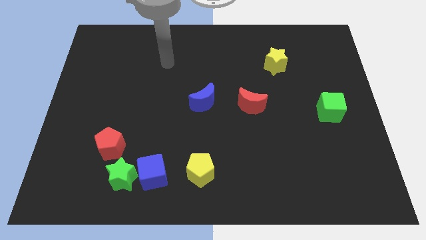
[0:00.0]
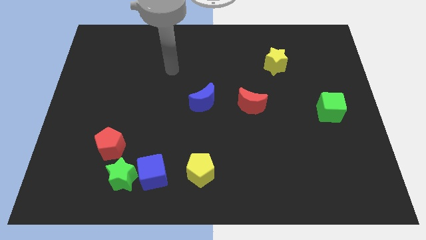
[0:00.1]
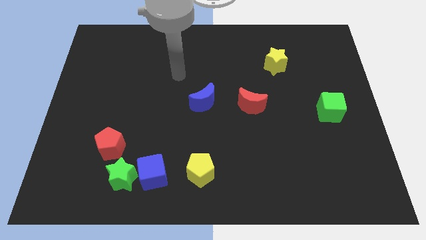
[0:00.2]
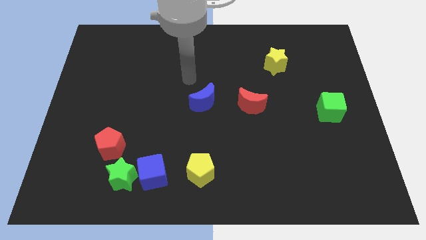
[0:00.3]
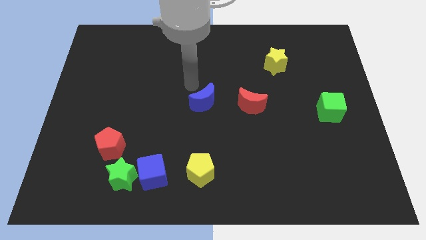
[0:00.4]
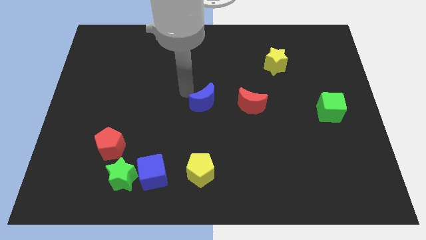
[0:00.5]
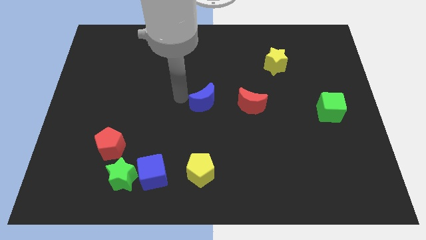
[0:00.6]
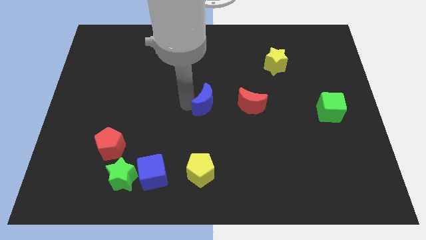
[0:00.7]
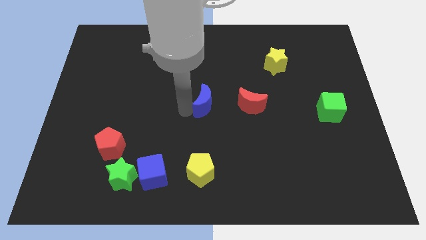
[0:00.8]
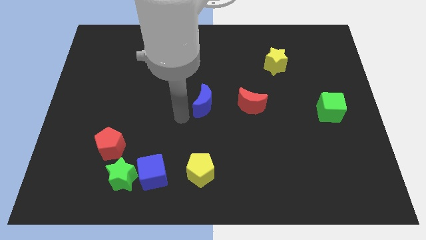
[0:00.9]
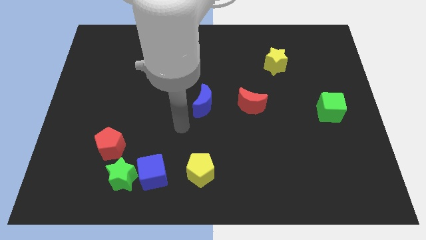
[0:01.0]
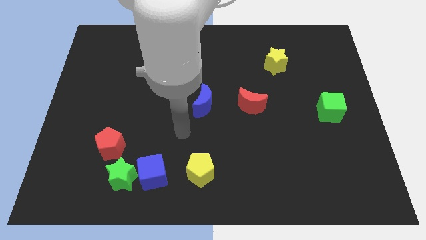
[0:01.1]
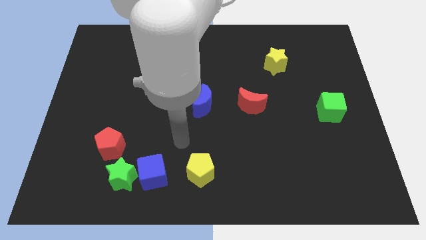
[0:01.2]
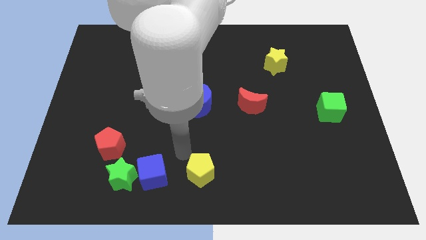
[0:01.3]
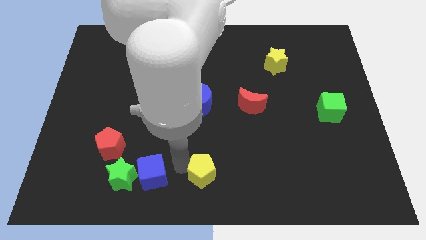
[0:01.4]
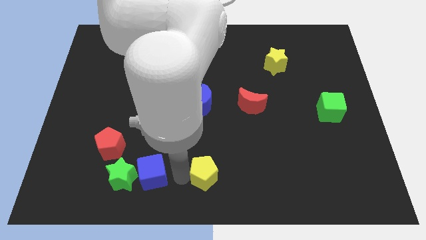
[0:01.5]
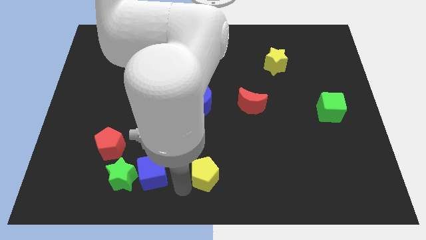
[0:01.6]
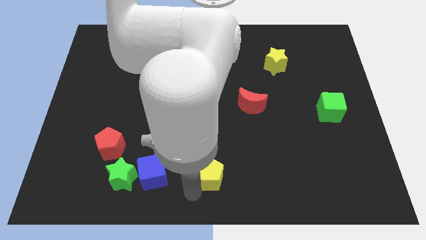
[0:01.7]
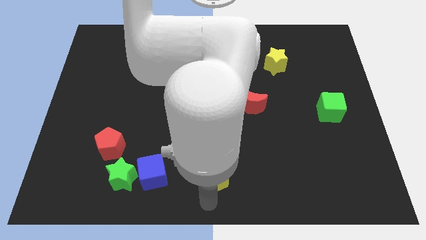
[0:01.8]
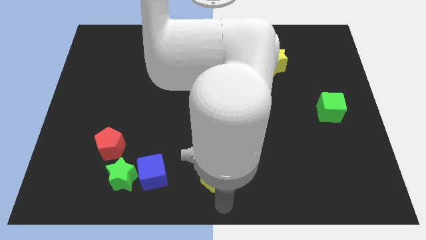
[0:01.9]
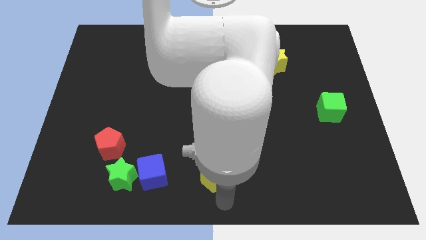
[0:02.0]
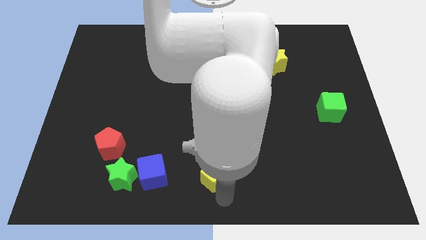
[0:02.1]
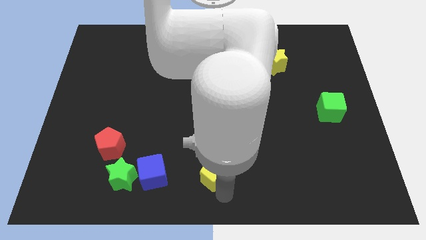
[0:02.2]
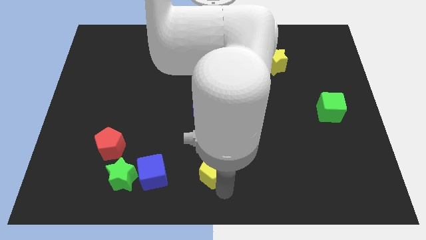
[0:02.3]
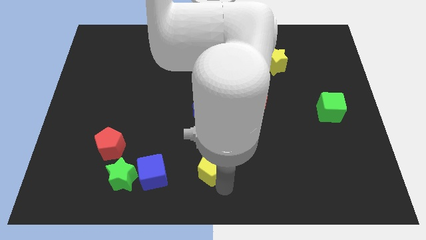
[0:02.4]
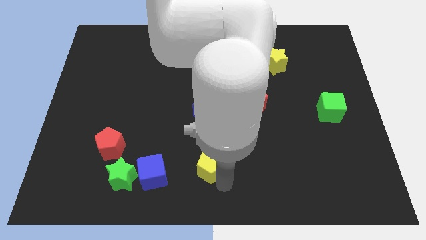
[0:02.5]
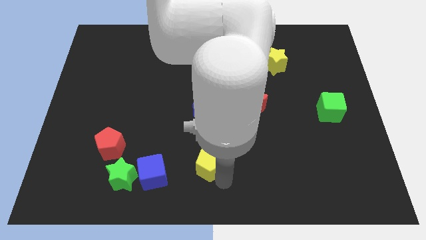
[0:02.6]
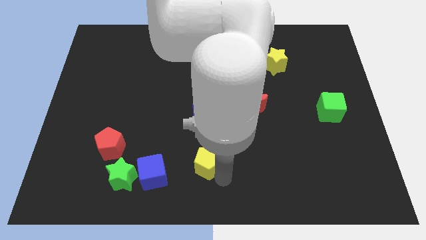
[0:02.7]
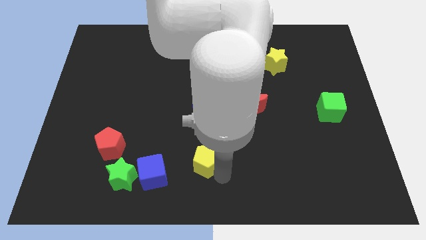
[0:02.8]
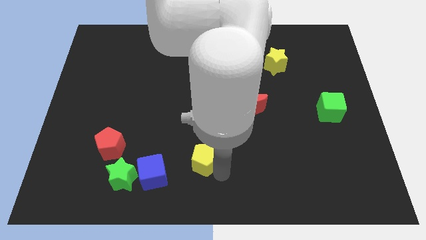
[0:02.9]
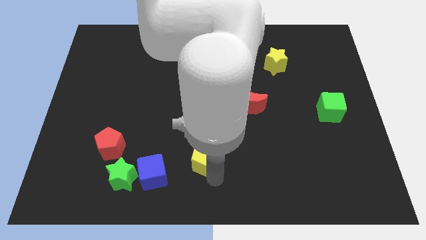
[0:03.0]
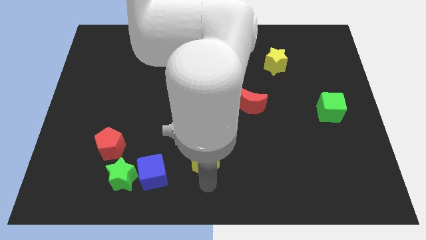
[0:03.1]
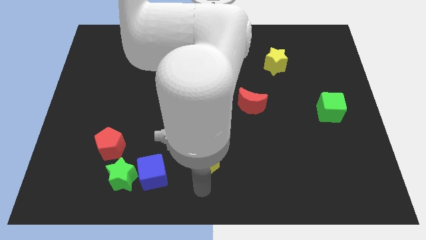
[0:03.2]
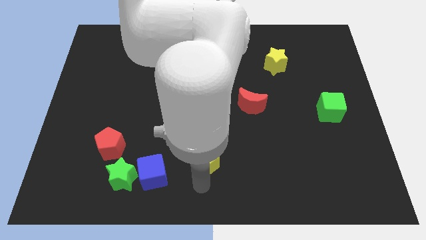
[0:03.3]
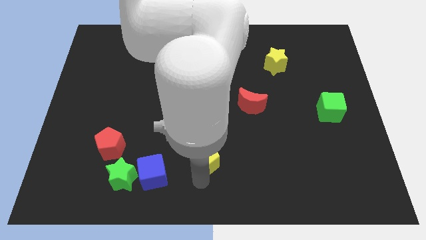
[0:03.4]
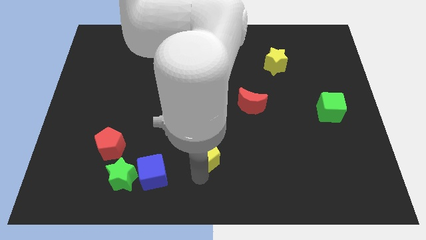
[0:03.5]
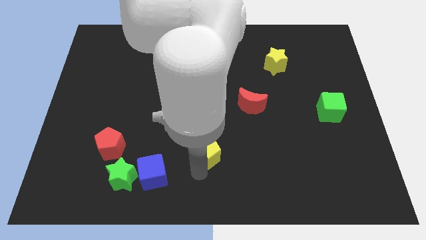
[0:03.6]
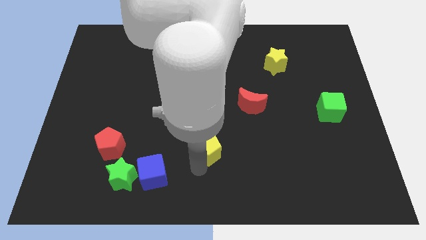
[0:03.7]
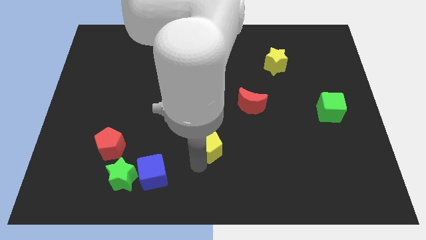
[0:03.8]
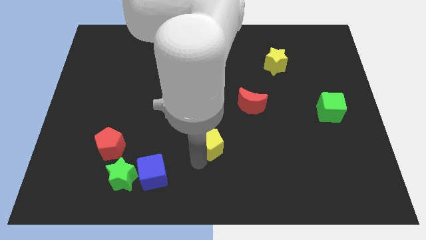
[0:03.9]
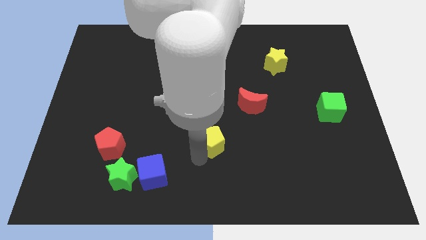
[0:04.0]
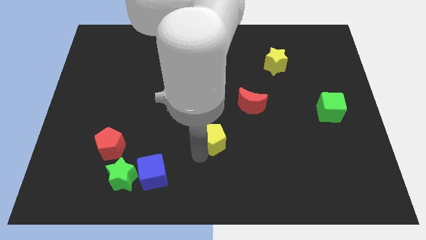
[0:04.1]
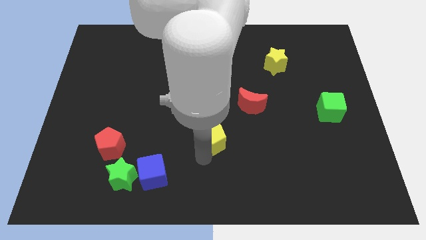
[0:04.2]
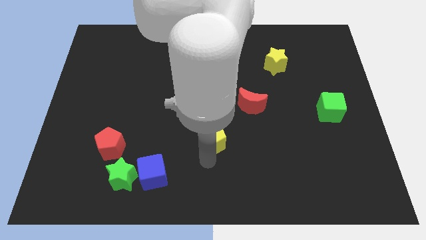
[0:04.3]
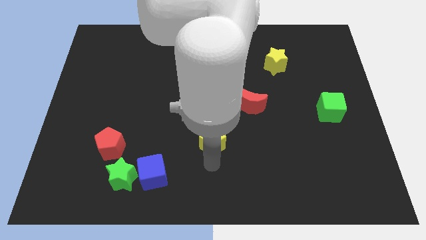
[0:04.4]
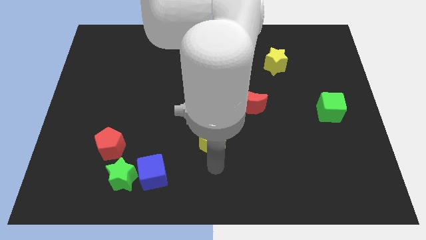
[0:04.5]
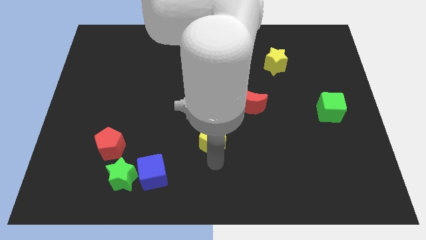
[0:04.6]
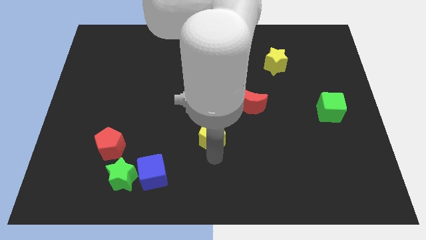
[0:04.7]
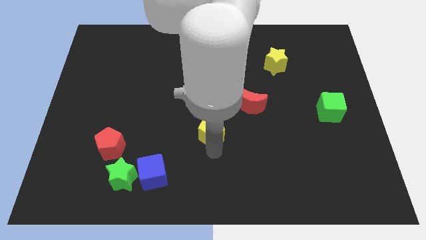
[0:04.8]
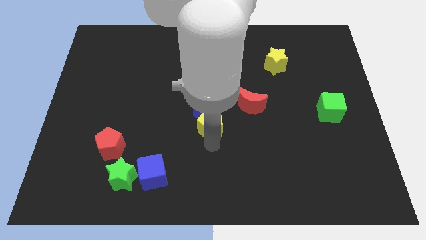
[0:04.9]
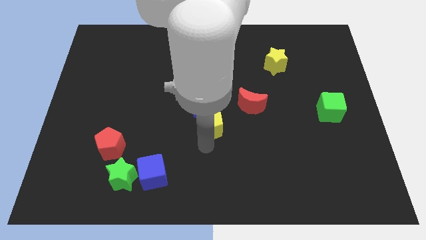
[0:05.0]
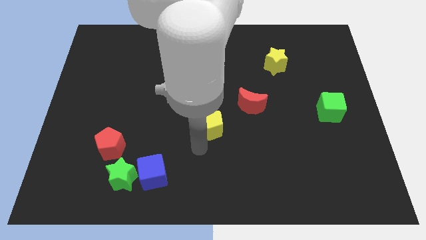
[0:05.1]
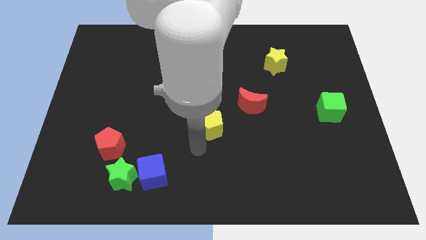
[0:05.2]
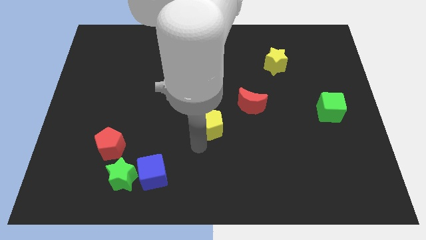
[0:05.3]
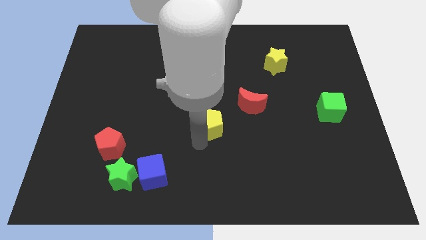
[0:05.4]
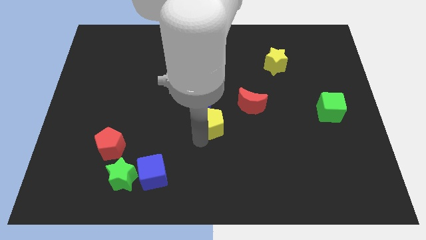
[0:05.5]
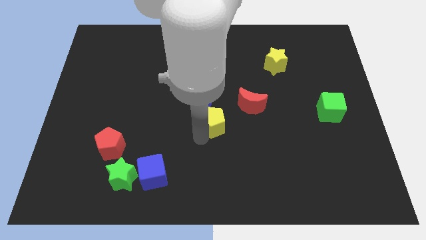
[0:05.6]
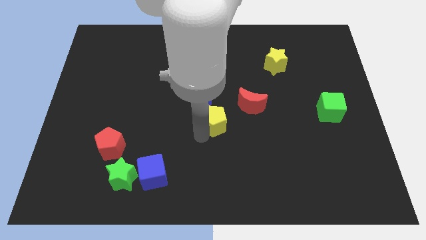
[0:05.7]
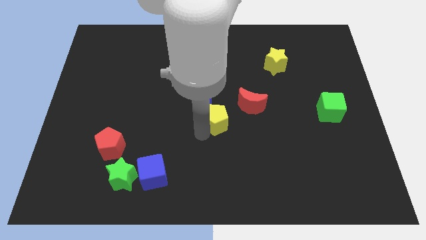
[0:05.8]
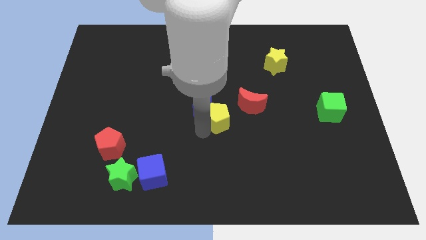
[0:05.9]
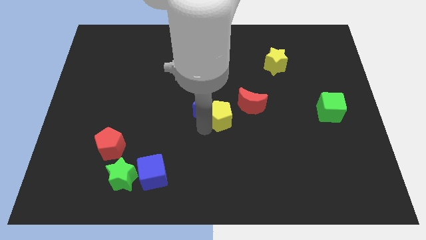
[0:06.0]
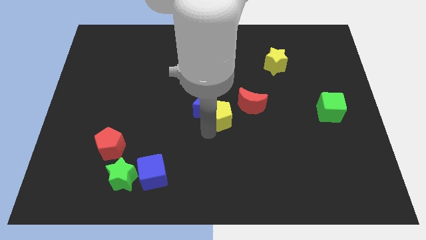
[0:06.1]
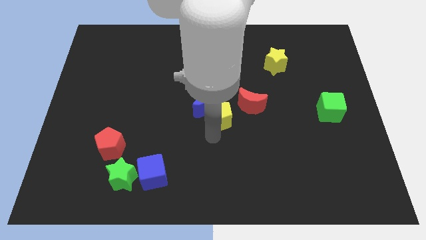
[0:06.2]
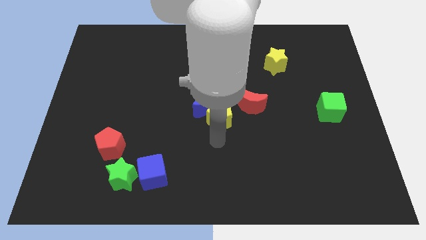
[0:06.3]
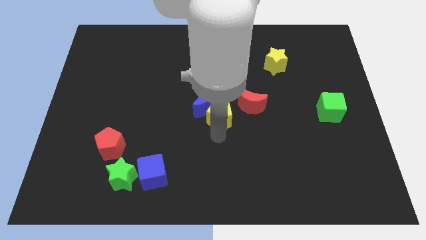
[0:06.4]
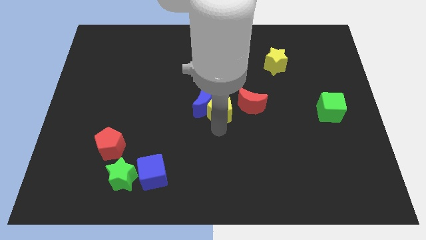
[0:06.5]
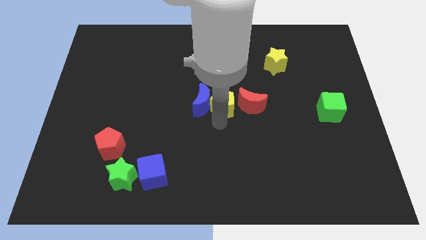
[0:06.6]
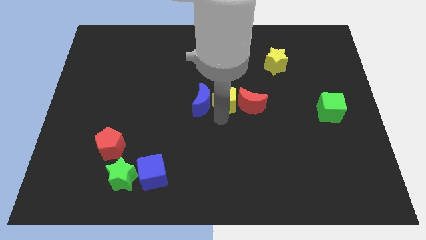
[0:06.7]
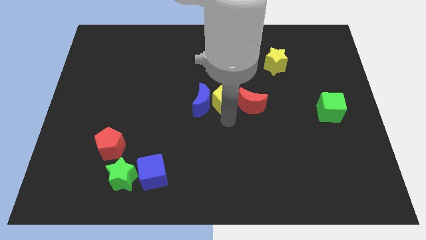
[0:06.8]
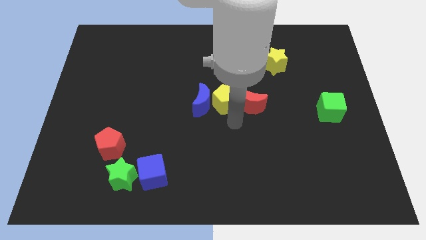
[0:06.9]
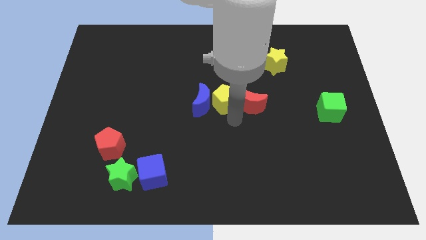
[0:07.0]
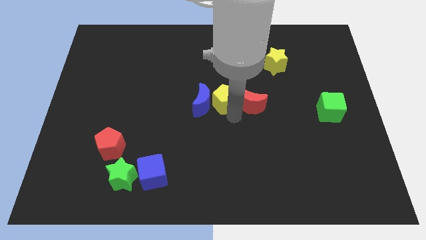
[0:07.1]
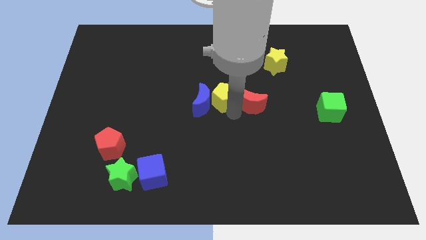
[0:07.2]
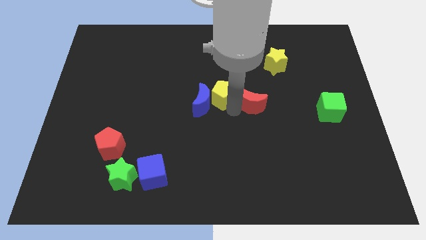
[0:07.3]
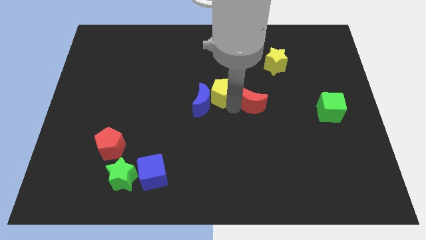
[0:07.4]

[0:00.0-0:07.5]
move the yellow pentagon upwards

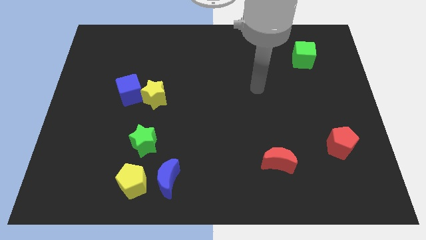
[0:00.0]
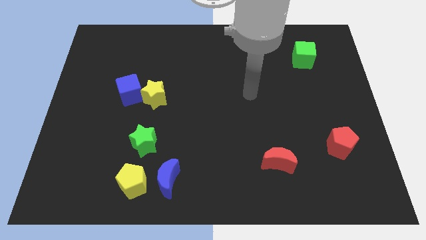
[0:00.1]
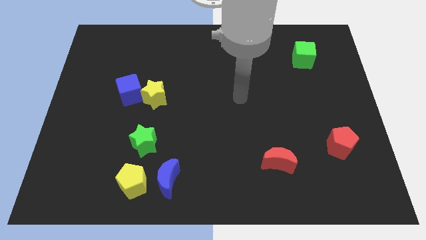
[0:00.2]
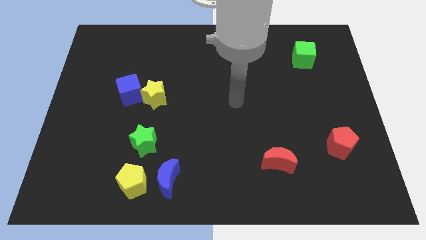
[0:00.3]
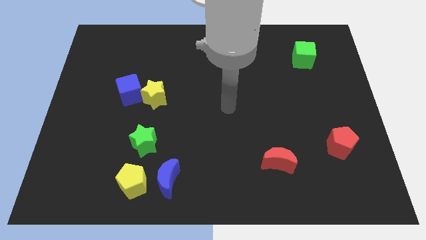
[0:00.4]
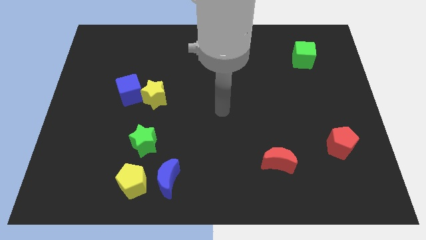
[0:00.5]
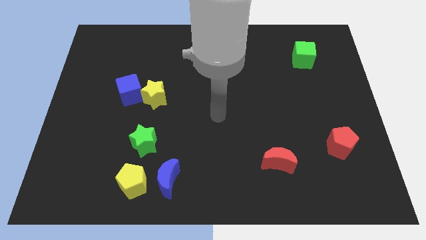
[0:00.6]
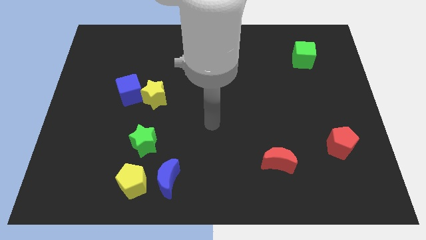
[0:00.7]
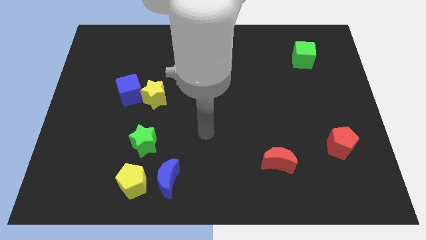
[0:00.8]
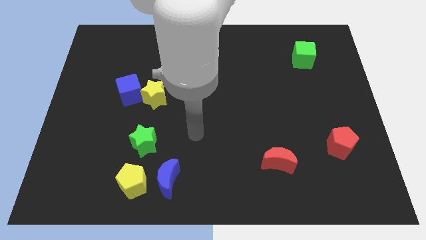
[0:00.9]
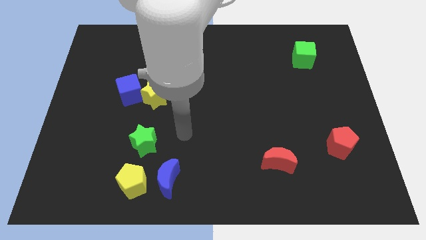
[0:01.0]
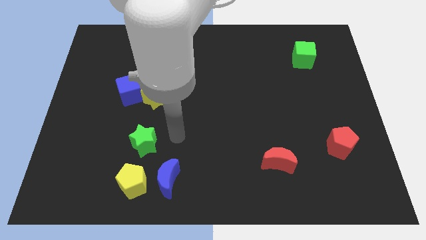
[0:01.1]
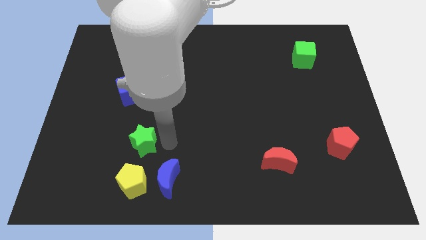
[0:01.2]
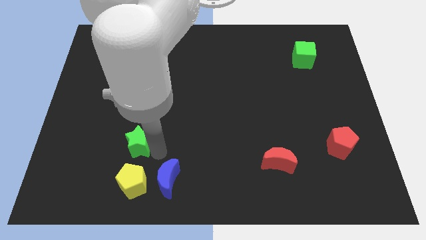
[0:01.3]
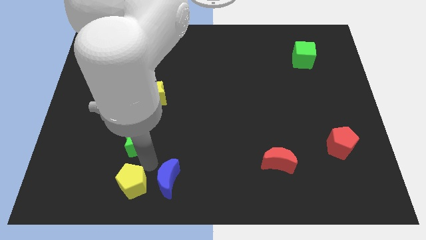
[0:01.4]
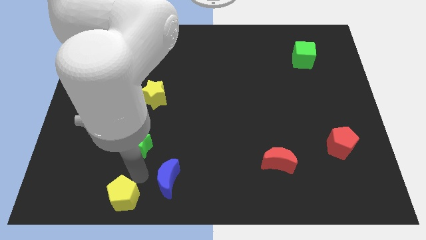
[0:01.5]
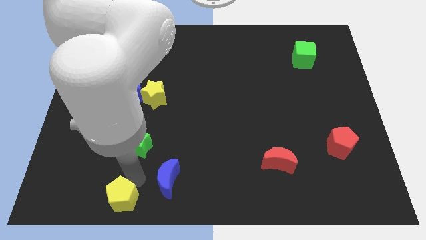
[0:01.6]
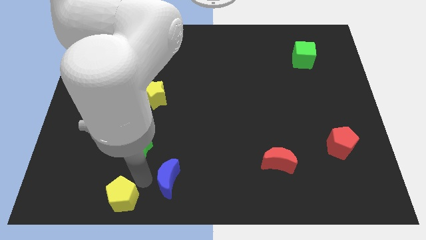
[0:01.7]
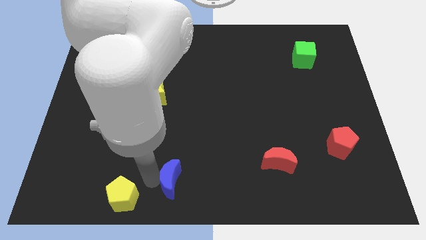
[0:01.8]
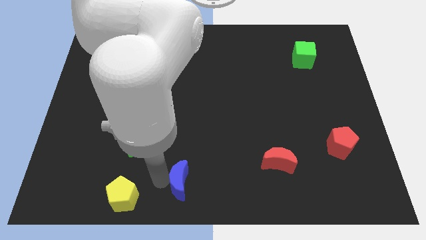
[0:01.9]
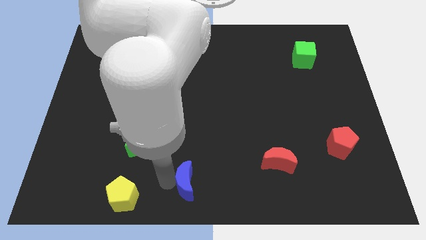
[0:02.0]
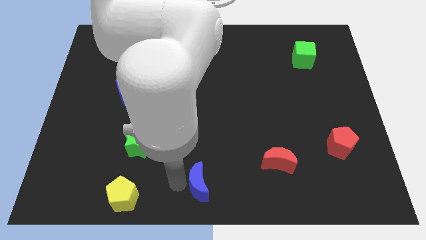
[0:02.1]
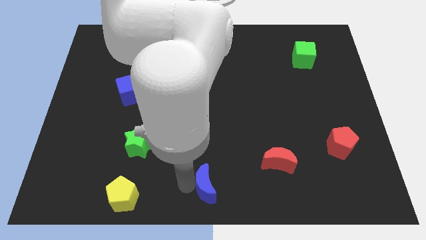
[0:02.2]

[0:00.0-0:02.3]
slightly move the blue moon to the right
